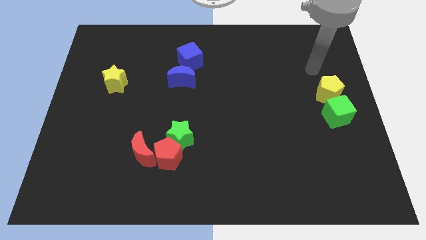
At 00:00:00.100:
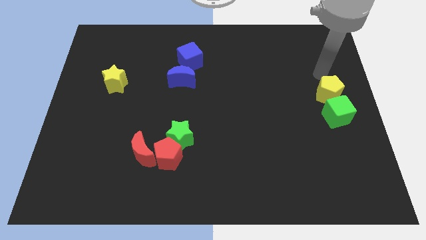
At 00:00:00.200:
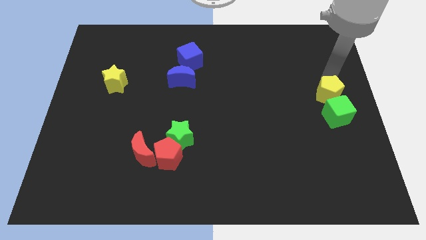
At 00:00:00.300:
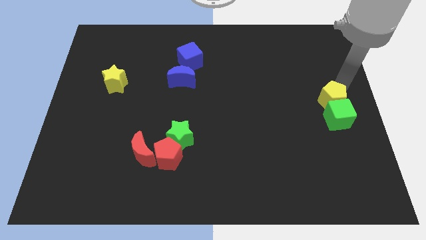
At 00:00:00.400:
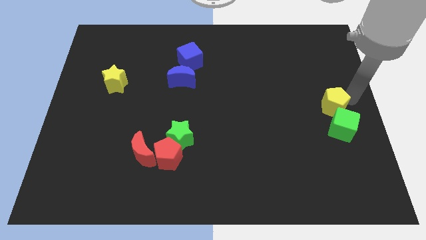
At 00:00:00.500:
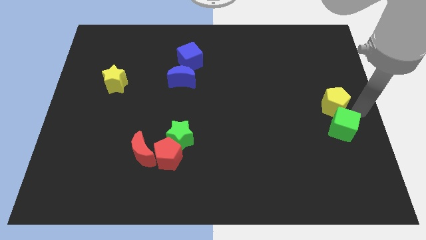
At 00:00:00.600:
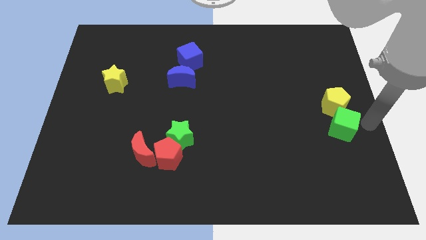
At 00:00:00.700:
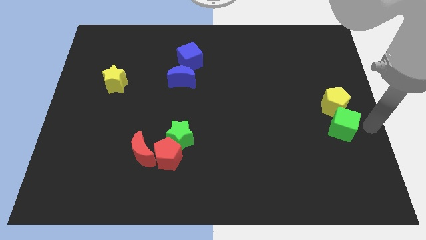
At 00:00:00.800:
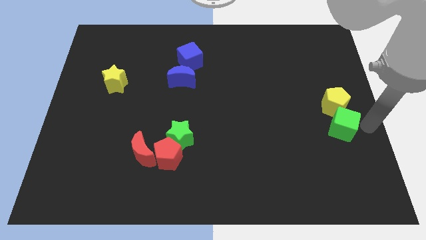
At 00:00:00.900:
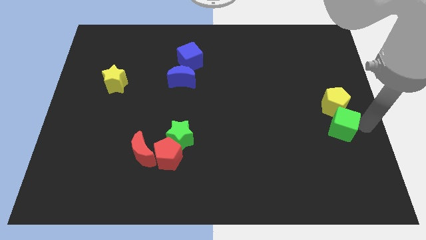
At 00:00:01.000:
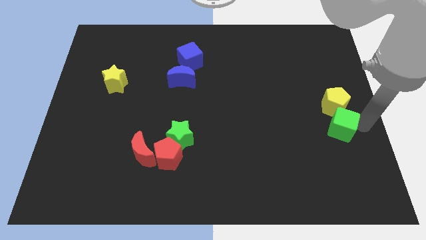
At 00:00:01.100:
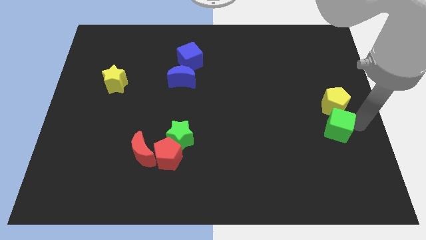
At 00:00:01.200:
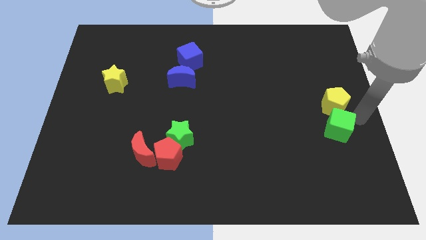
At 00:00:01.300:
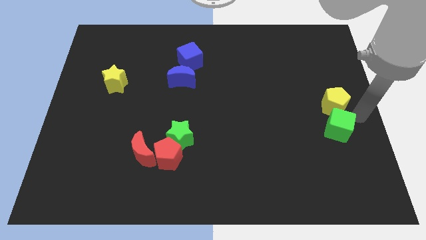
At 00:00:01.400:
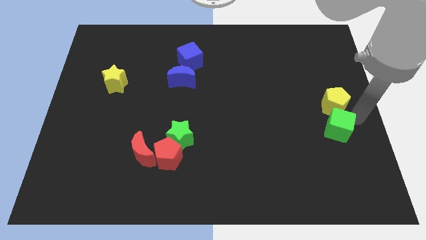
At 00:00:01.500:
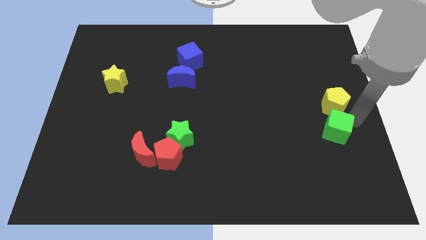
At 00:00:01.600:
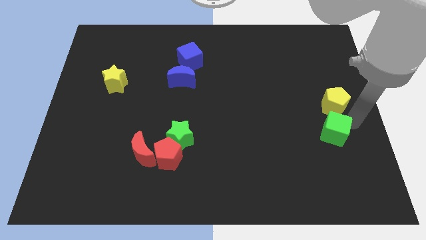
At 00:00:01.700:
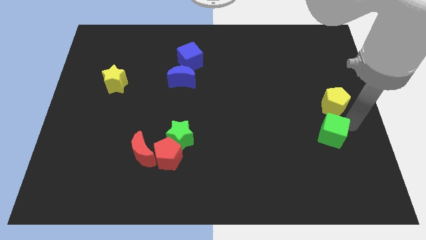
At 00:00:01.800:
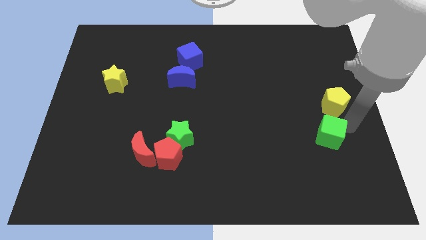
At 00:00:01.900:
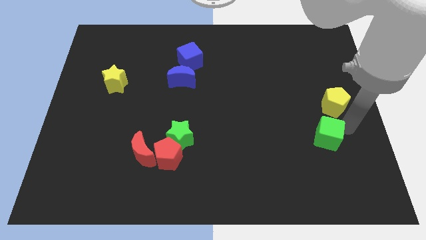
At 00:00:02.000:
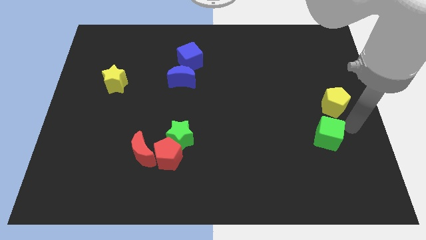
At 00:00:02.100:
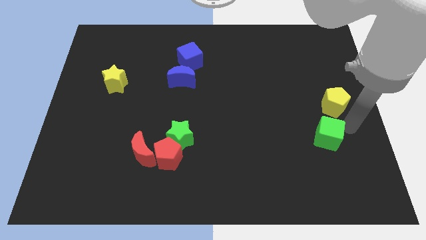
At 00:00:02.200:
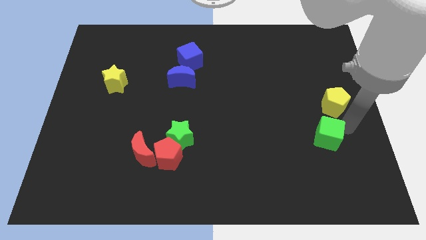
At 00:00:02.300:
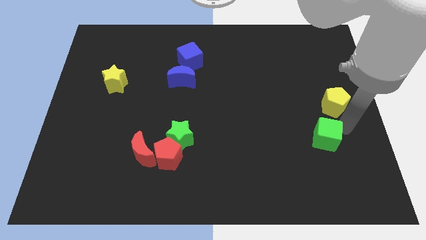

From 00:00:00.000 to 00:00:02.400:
slide the green cube diagonally down and to the left slightly

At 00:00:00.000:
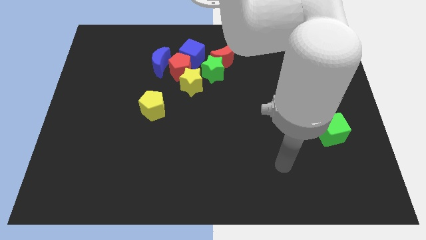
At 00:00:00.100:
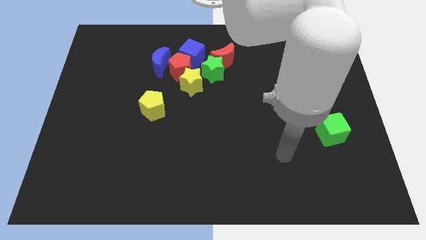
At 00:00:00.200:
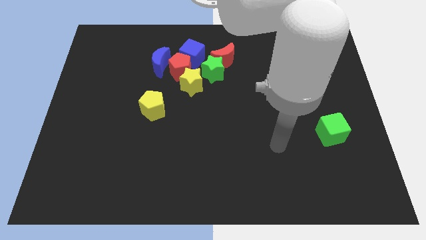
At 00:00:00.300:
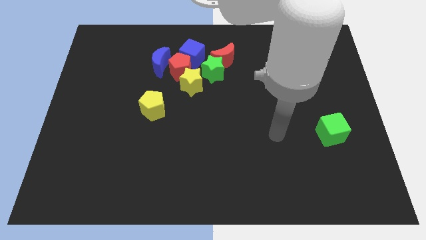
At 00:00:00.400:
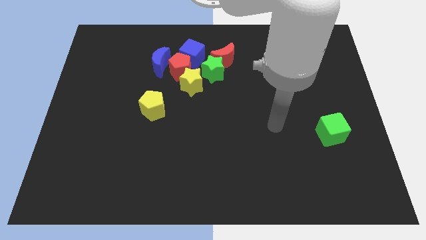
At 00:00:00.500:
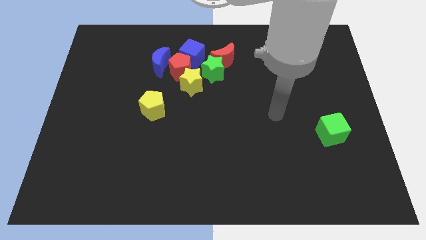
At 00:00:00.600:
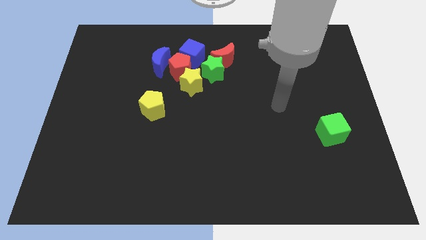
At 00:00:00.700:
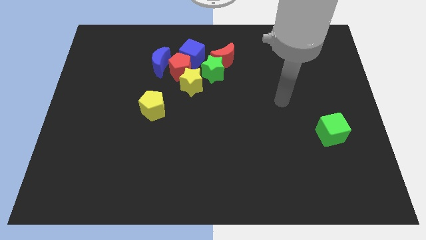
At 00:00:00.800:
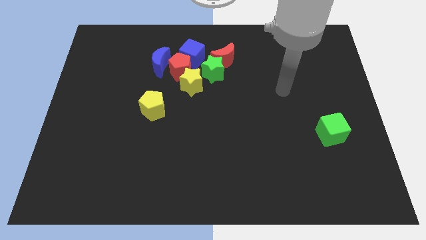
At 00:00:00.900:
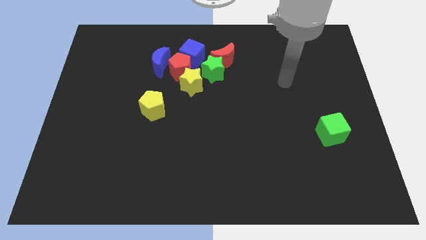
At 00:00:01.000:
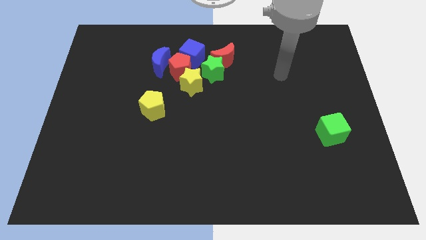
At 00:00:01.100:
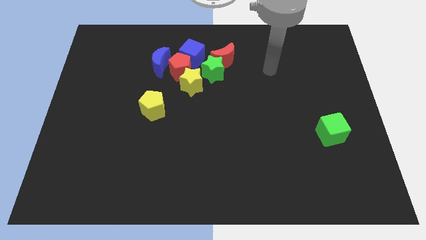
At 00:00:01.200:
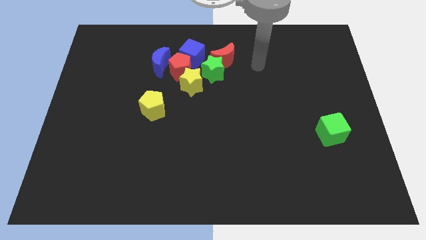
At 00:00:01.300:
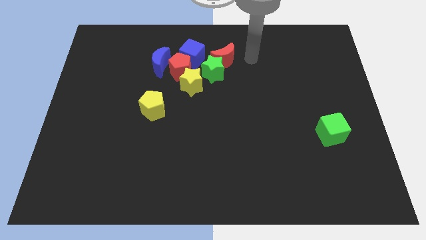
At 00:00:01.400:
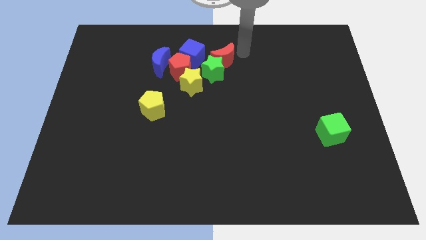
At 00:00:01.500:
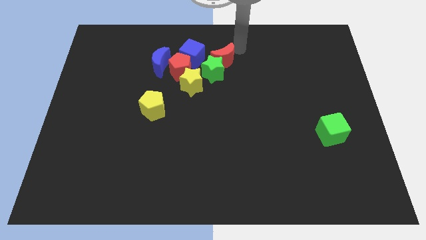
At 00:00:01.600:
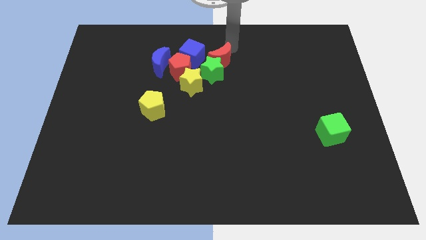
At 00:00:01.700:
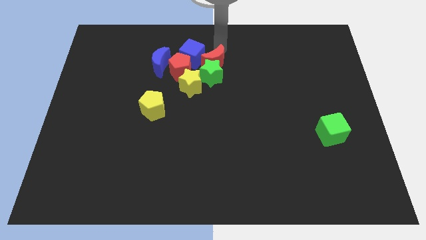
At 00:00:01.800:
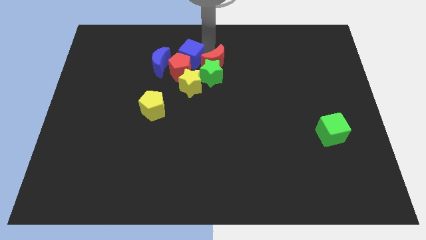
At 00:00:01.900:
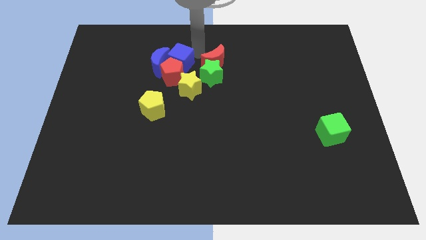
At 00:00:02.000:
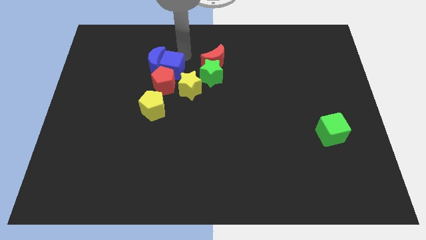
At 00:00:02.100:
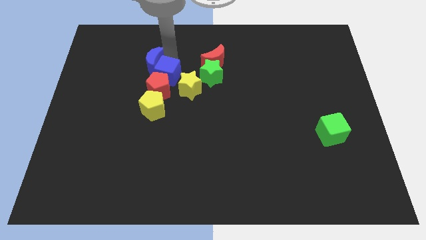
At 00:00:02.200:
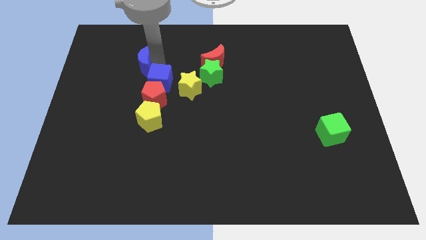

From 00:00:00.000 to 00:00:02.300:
slide the red pentagon downwards slightly

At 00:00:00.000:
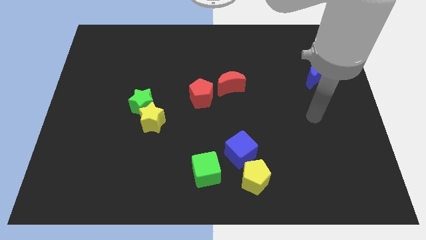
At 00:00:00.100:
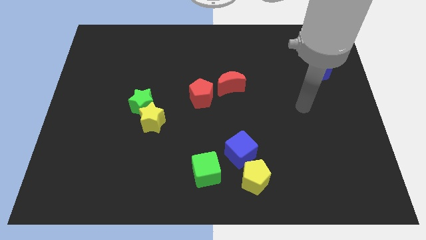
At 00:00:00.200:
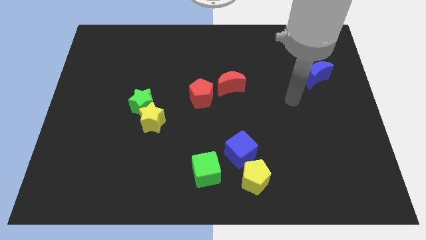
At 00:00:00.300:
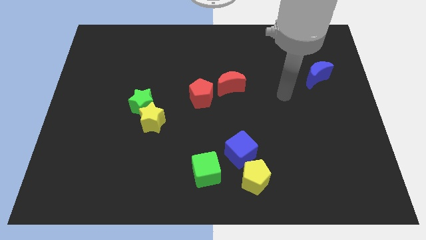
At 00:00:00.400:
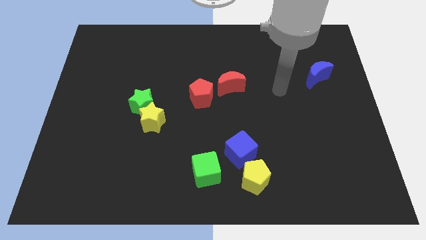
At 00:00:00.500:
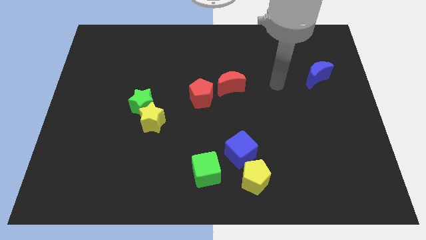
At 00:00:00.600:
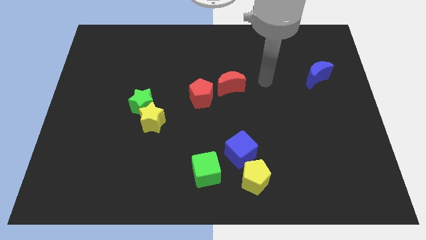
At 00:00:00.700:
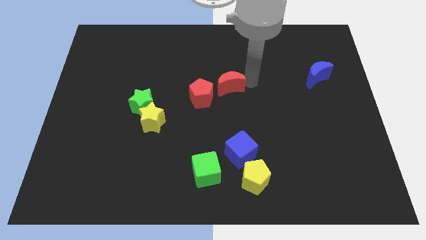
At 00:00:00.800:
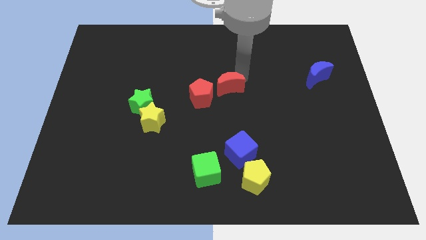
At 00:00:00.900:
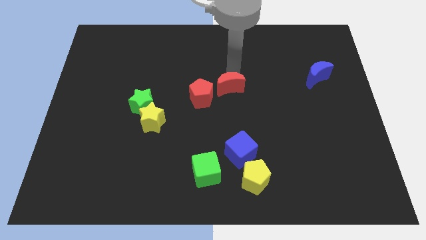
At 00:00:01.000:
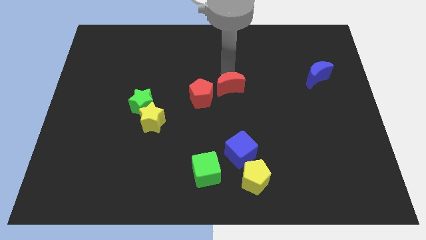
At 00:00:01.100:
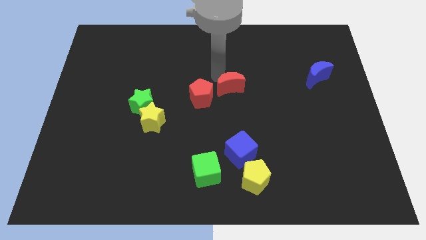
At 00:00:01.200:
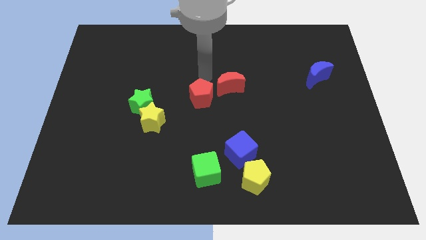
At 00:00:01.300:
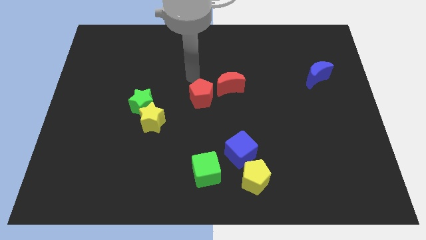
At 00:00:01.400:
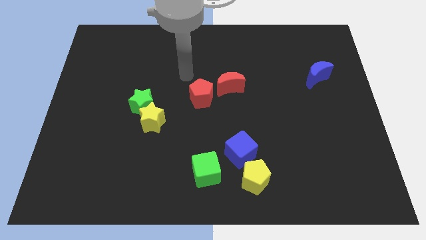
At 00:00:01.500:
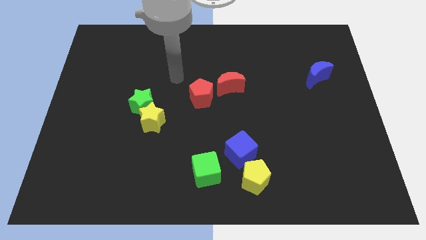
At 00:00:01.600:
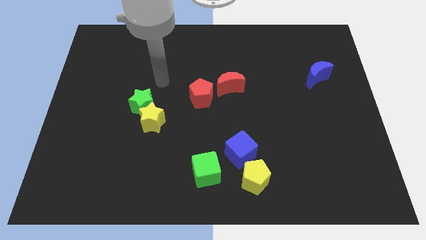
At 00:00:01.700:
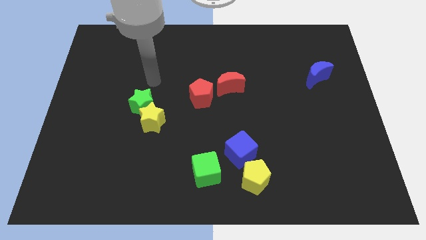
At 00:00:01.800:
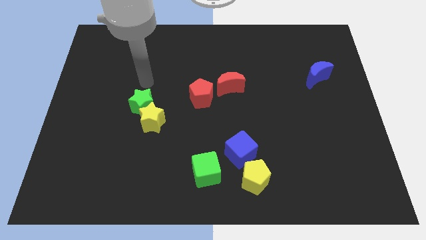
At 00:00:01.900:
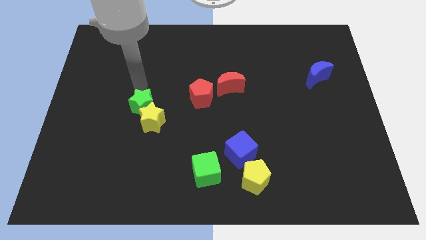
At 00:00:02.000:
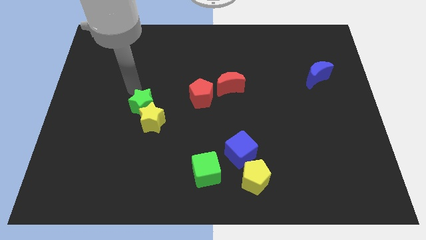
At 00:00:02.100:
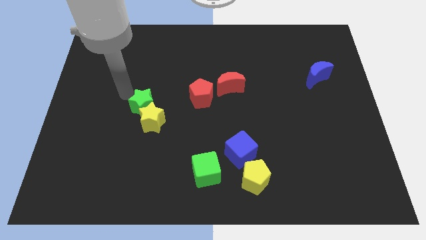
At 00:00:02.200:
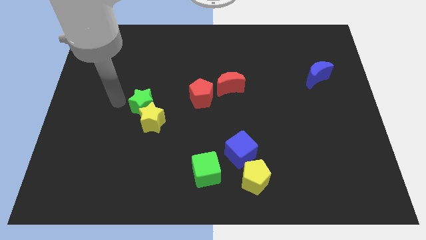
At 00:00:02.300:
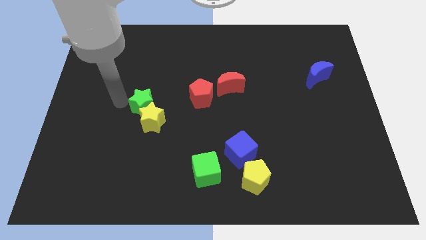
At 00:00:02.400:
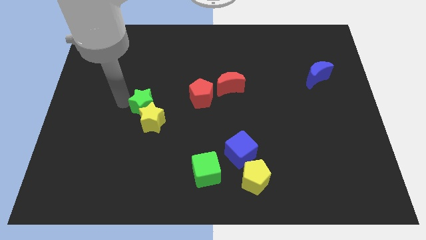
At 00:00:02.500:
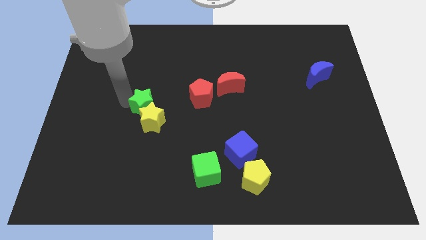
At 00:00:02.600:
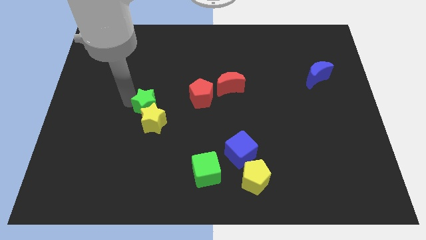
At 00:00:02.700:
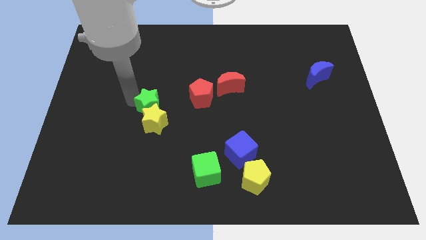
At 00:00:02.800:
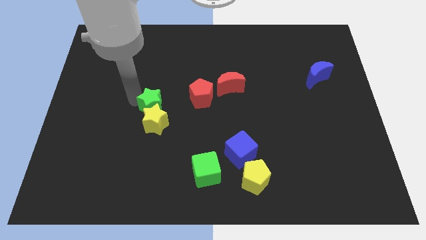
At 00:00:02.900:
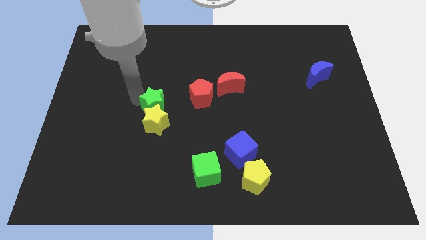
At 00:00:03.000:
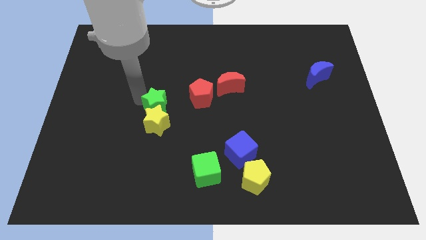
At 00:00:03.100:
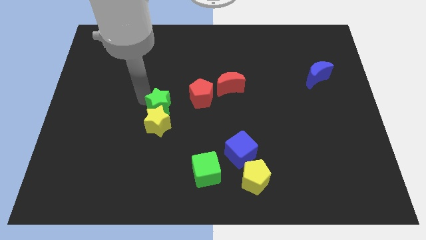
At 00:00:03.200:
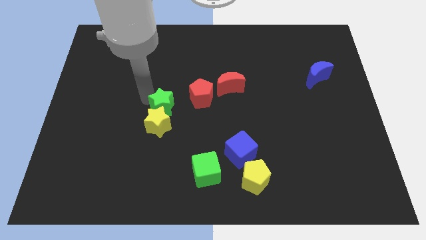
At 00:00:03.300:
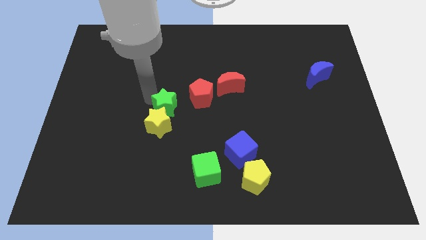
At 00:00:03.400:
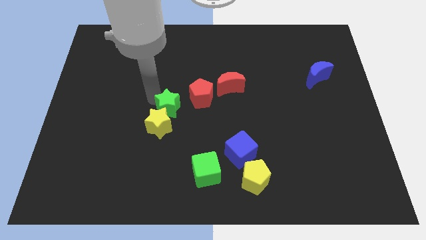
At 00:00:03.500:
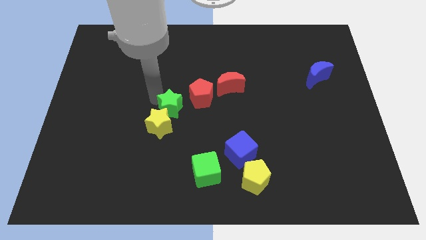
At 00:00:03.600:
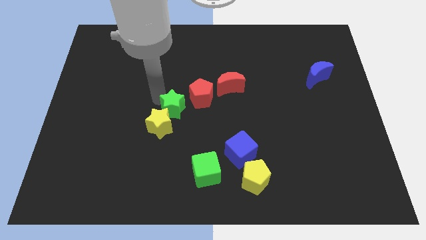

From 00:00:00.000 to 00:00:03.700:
slide the green star a bit right
